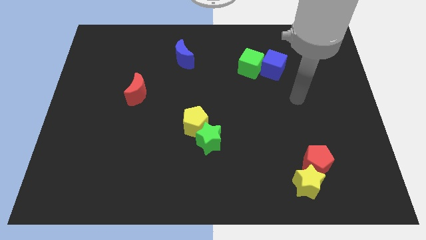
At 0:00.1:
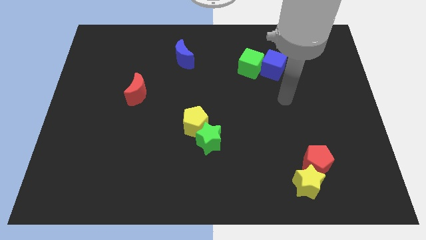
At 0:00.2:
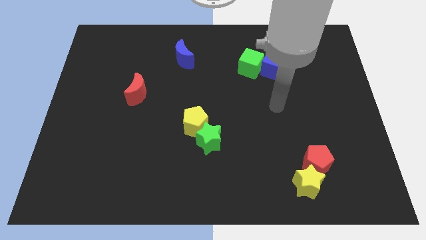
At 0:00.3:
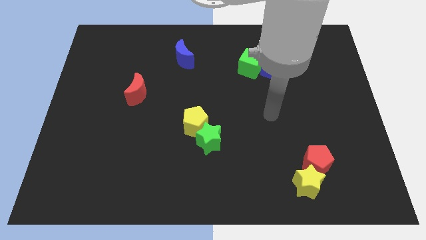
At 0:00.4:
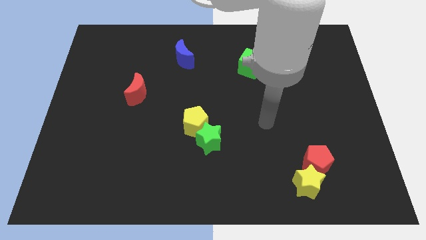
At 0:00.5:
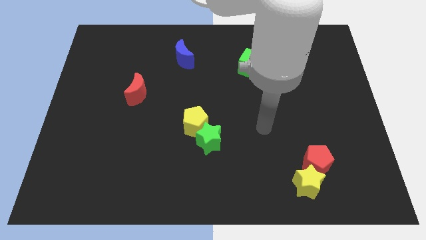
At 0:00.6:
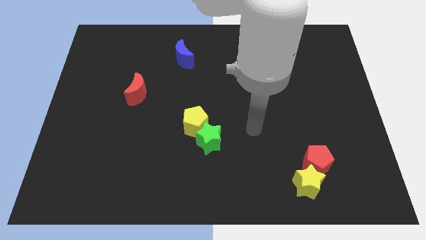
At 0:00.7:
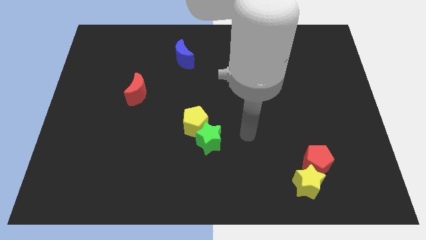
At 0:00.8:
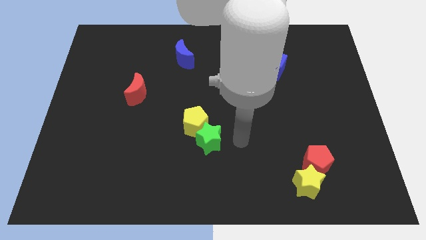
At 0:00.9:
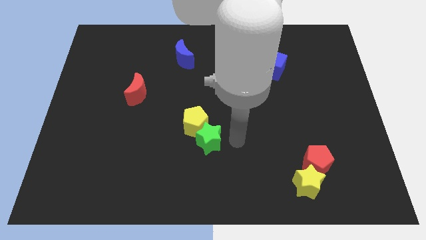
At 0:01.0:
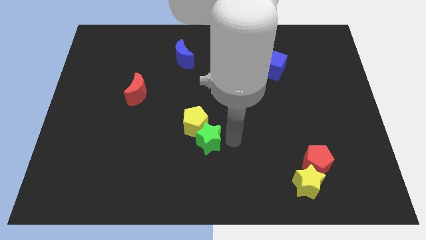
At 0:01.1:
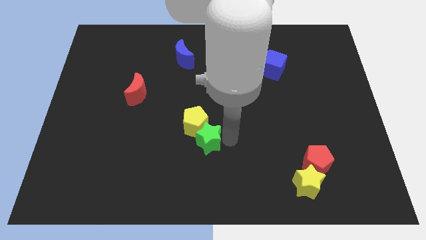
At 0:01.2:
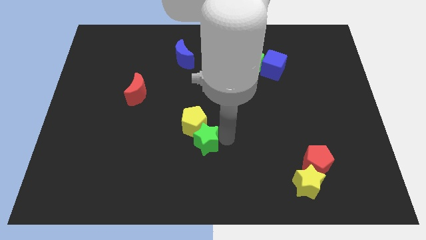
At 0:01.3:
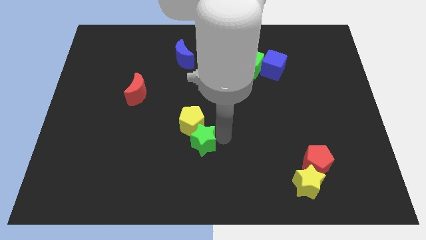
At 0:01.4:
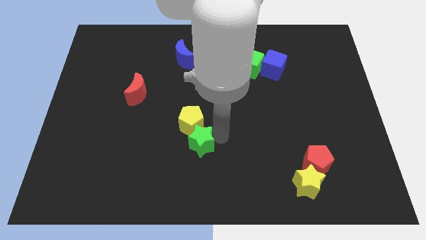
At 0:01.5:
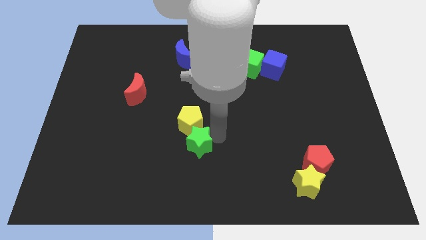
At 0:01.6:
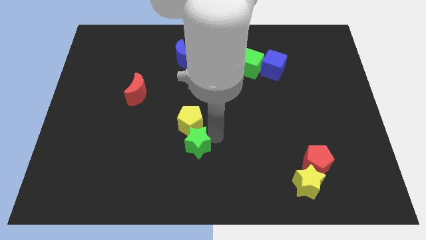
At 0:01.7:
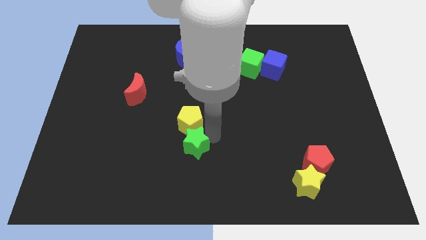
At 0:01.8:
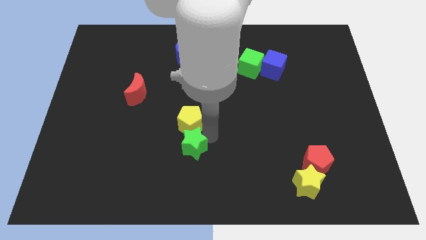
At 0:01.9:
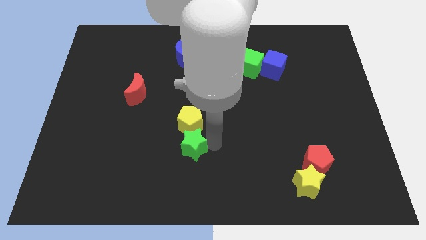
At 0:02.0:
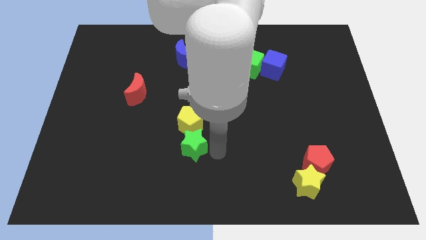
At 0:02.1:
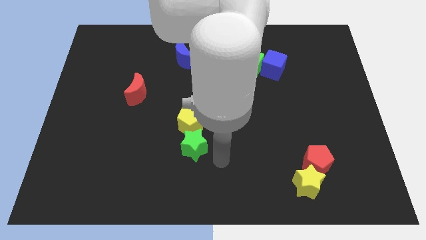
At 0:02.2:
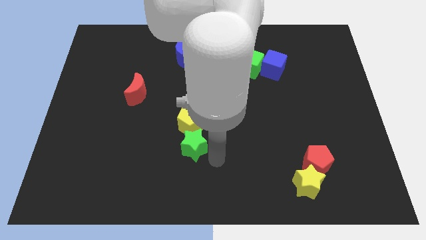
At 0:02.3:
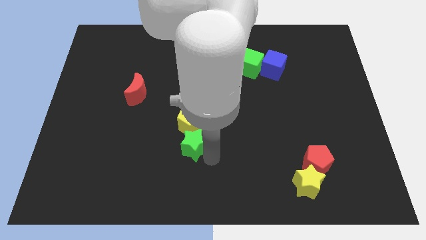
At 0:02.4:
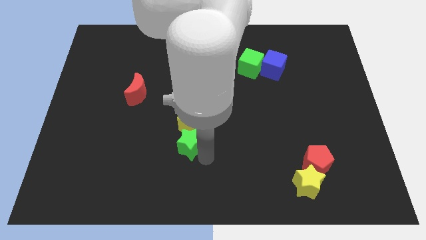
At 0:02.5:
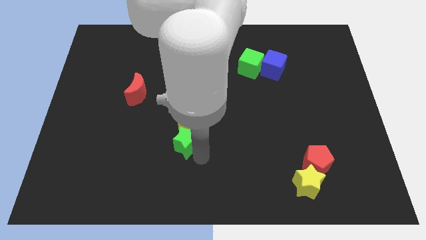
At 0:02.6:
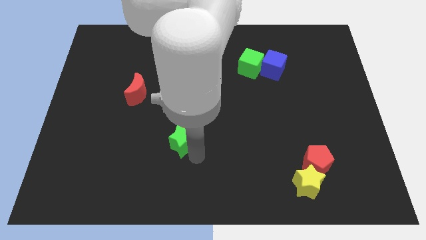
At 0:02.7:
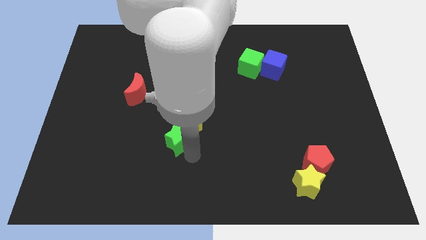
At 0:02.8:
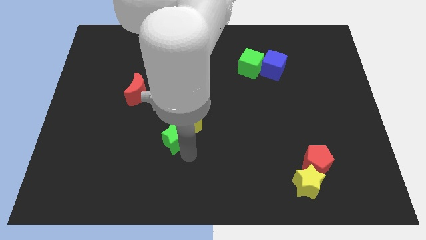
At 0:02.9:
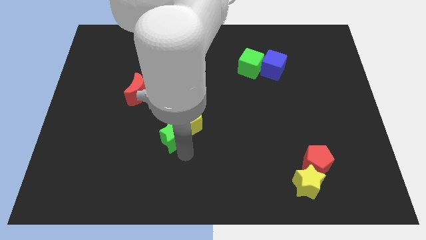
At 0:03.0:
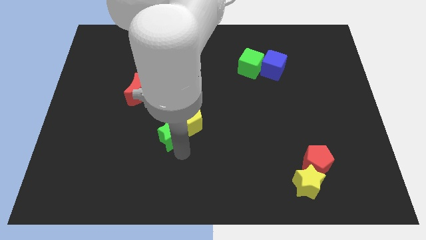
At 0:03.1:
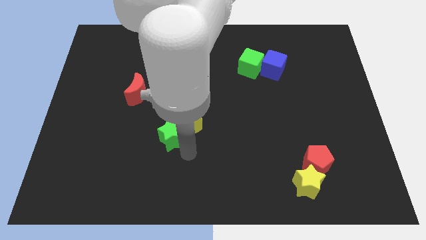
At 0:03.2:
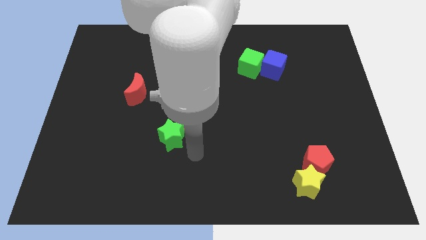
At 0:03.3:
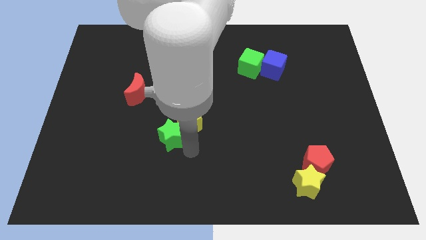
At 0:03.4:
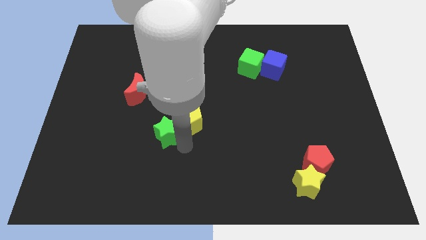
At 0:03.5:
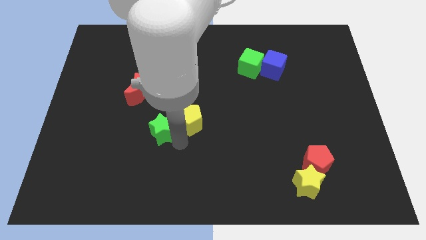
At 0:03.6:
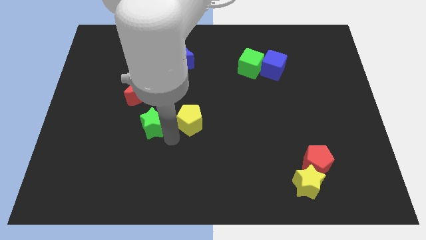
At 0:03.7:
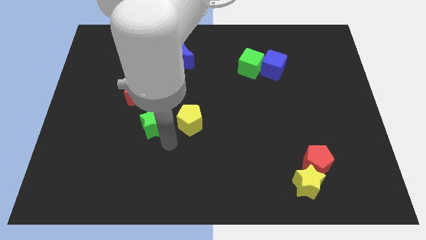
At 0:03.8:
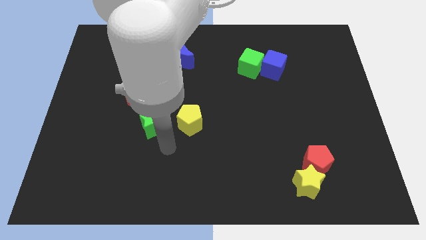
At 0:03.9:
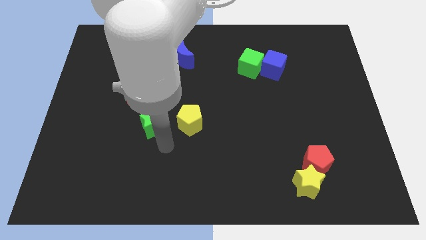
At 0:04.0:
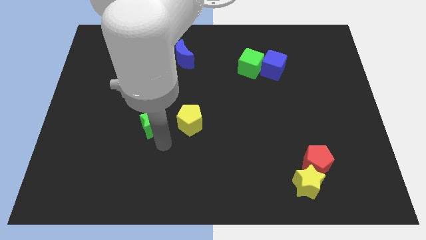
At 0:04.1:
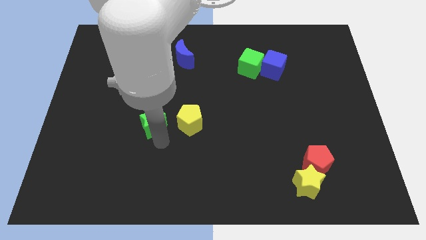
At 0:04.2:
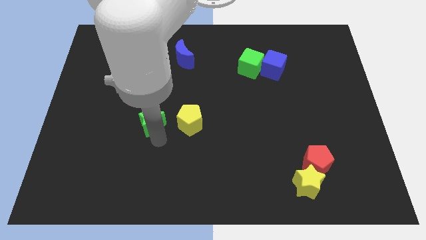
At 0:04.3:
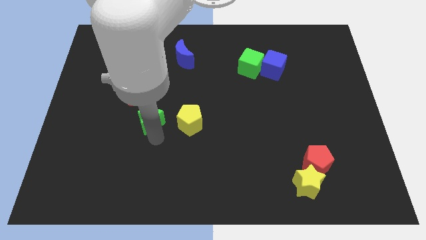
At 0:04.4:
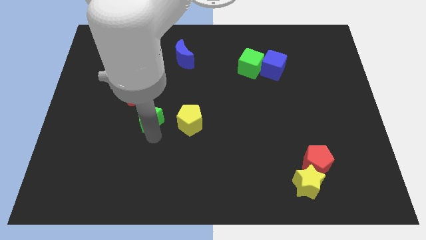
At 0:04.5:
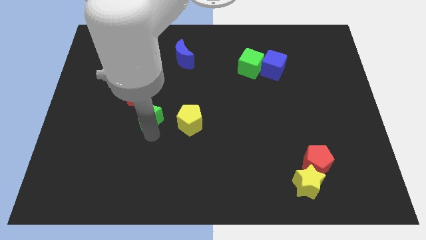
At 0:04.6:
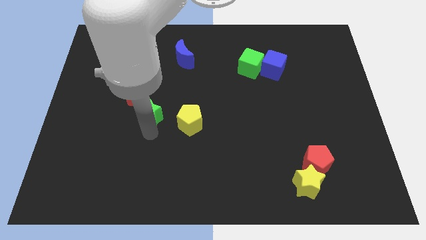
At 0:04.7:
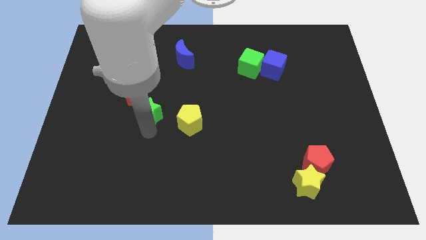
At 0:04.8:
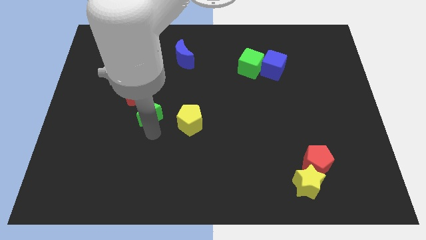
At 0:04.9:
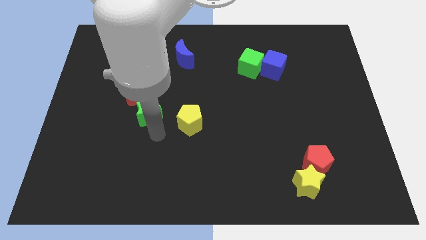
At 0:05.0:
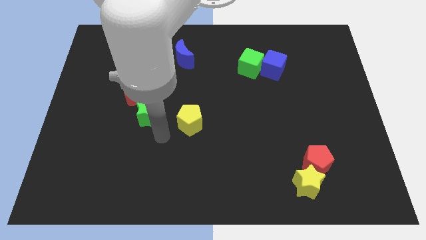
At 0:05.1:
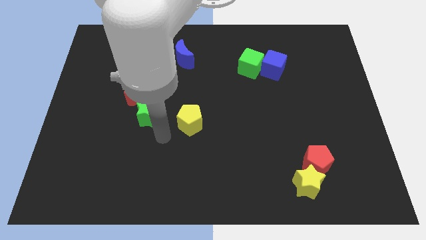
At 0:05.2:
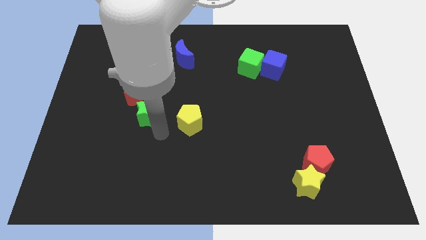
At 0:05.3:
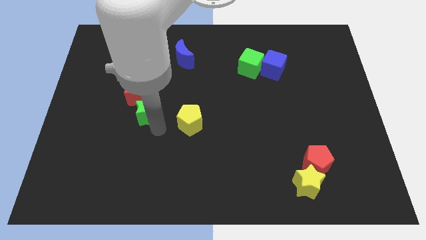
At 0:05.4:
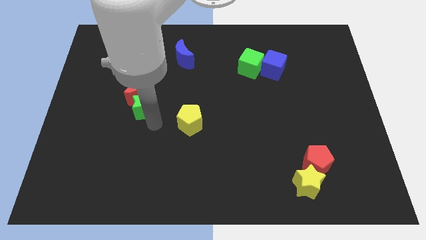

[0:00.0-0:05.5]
slide the green star next to the red moon

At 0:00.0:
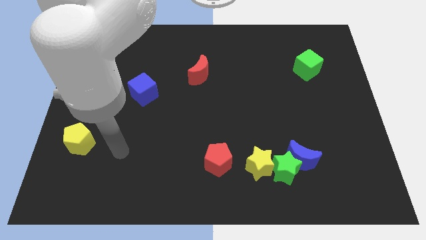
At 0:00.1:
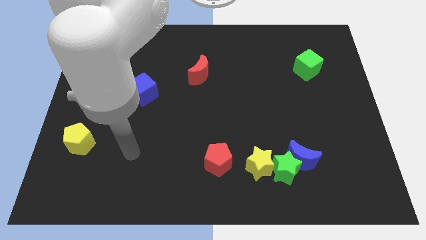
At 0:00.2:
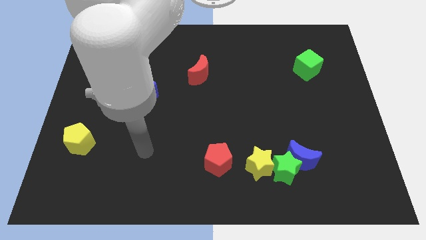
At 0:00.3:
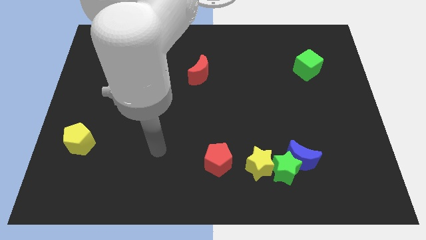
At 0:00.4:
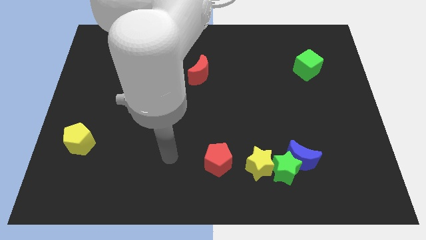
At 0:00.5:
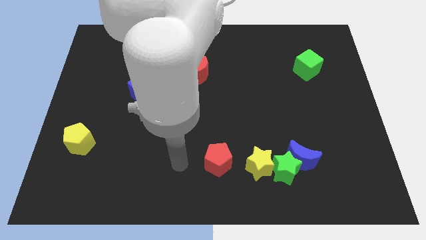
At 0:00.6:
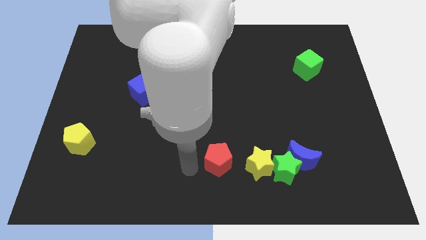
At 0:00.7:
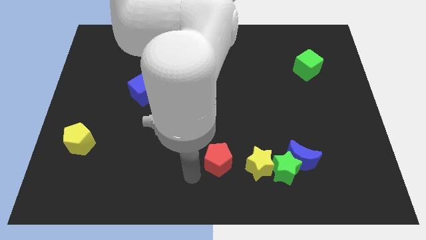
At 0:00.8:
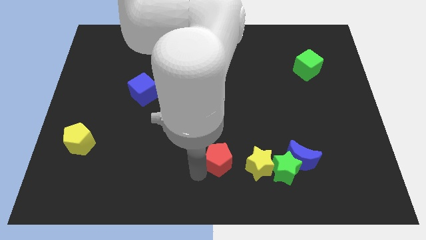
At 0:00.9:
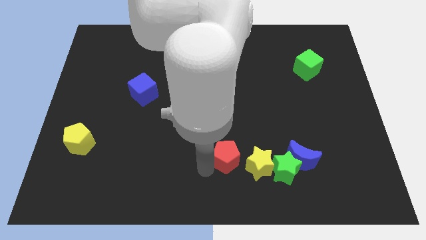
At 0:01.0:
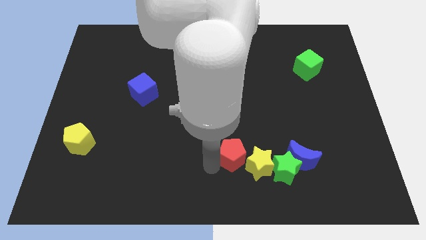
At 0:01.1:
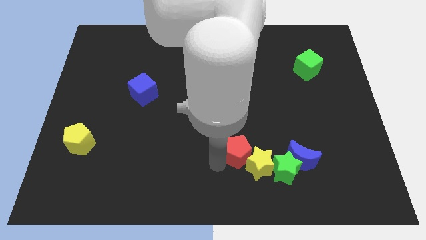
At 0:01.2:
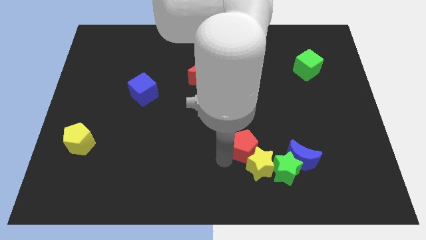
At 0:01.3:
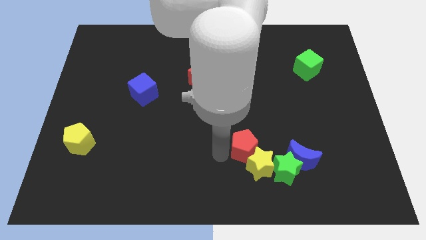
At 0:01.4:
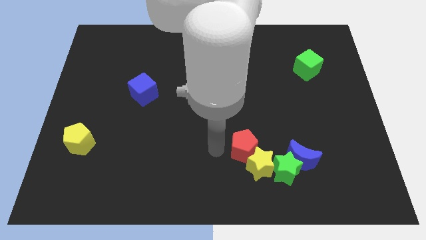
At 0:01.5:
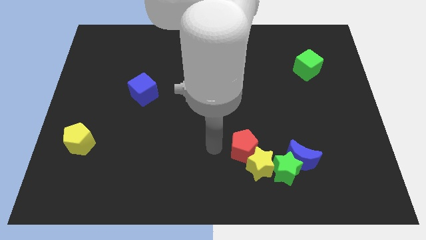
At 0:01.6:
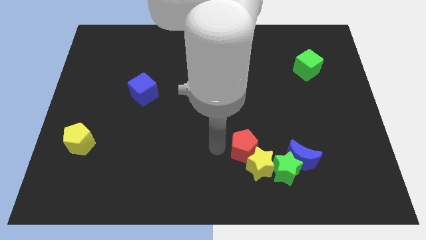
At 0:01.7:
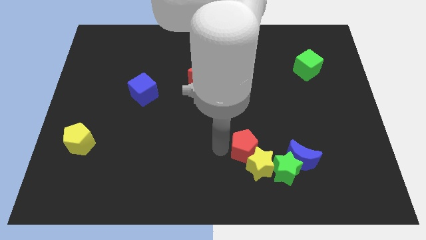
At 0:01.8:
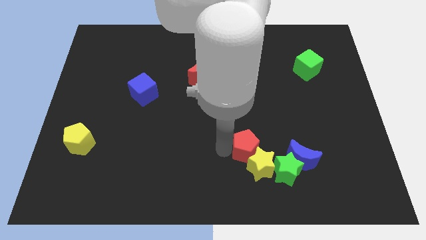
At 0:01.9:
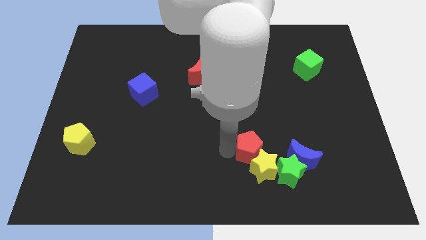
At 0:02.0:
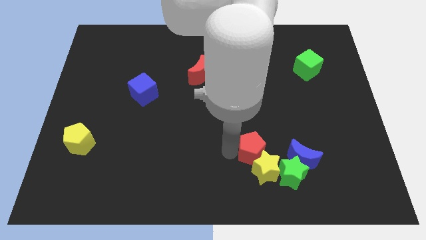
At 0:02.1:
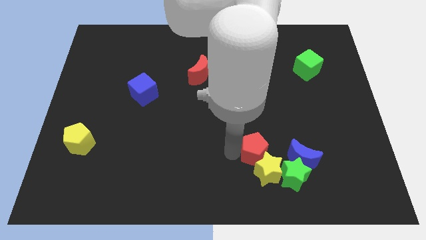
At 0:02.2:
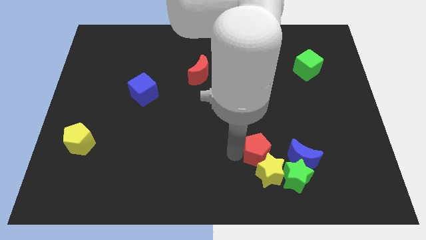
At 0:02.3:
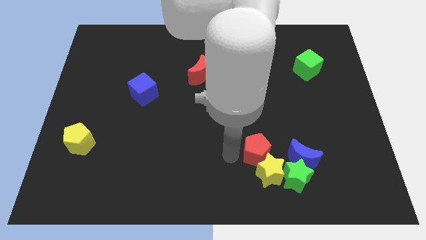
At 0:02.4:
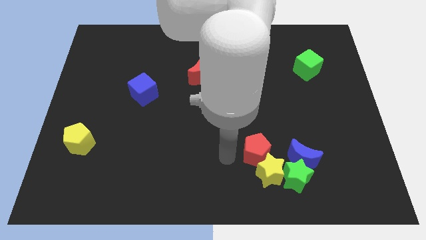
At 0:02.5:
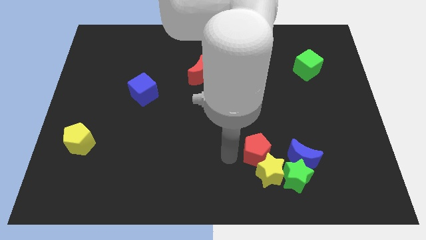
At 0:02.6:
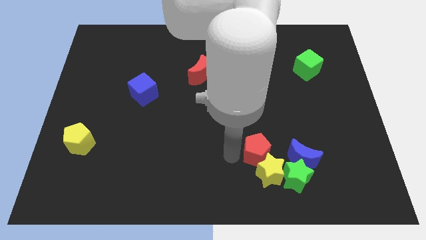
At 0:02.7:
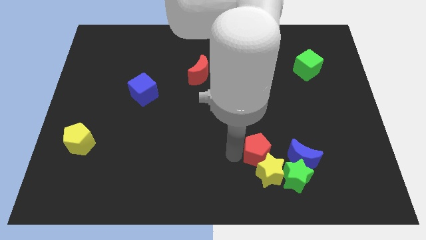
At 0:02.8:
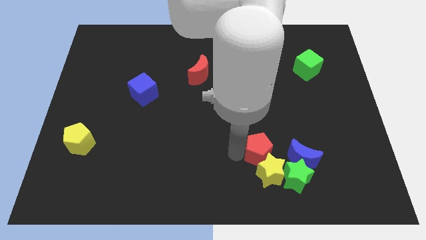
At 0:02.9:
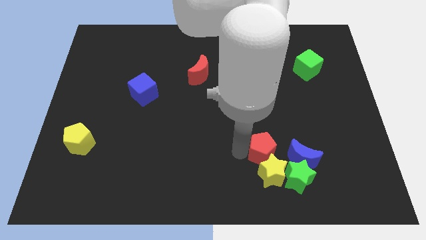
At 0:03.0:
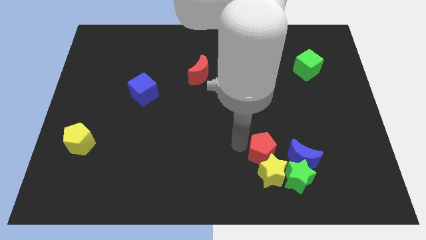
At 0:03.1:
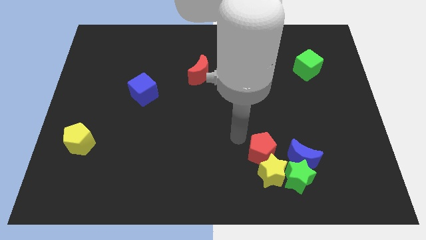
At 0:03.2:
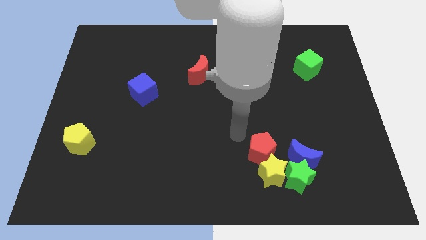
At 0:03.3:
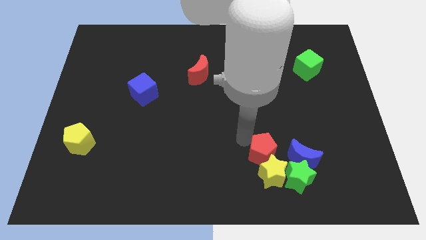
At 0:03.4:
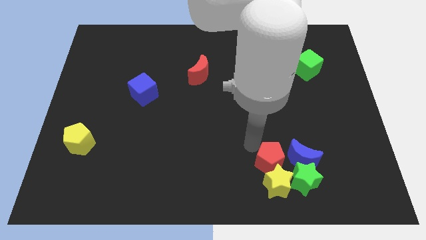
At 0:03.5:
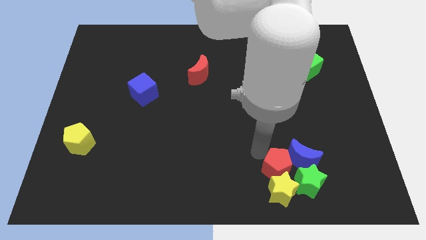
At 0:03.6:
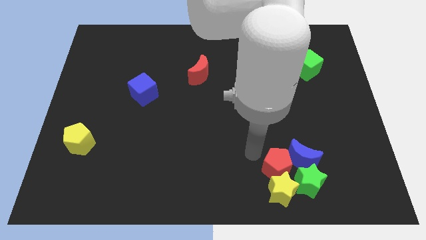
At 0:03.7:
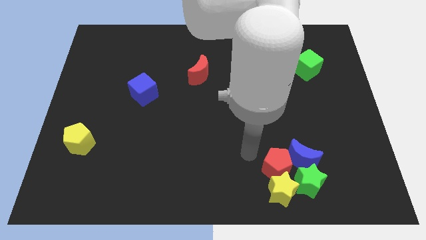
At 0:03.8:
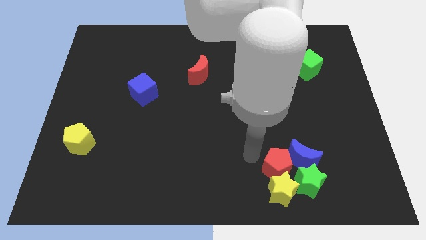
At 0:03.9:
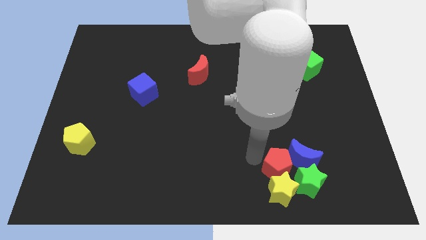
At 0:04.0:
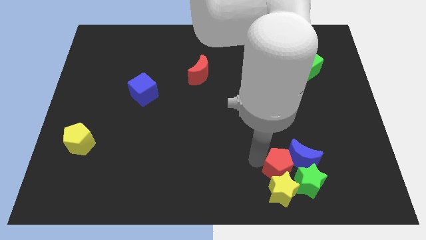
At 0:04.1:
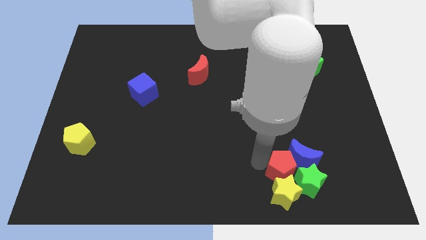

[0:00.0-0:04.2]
slide the red pentagon close to the green star
